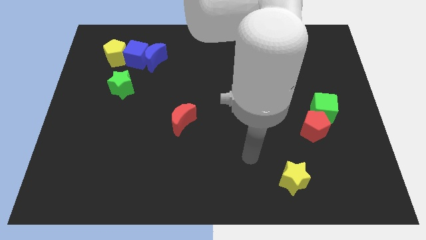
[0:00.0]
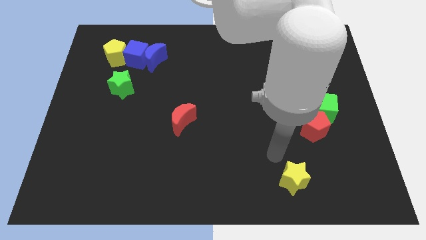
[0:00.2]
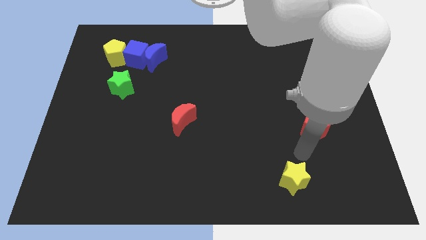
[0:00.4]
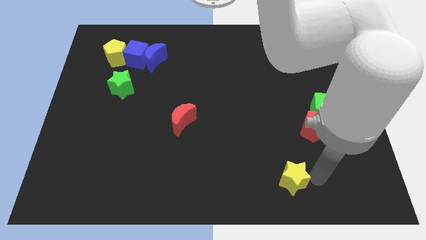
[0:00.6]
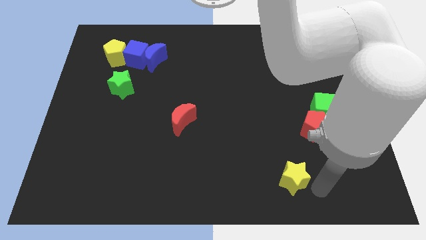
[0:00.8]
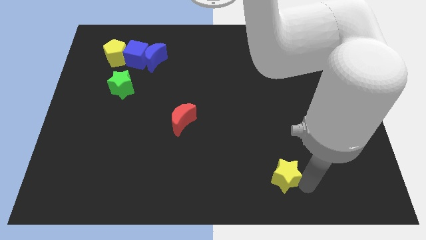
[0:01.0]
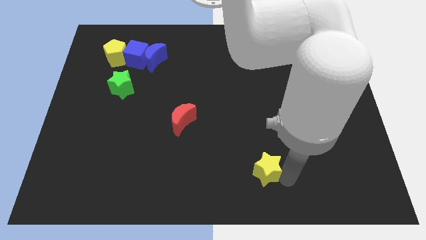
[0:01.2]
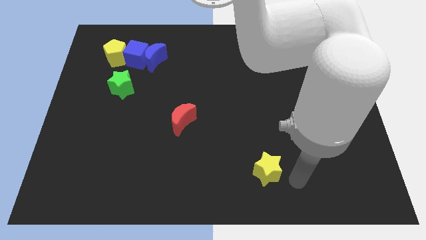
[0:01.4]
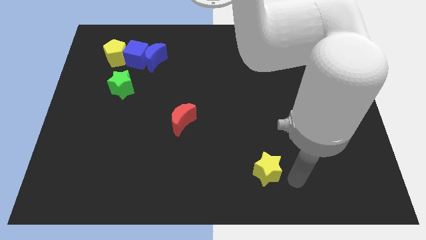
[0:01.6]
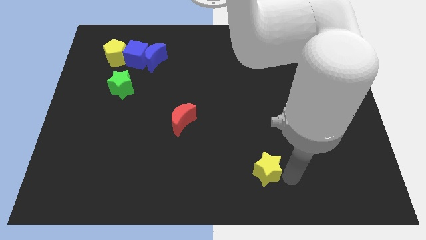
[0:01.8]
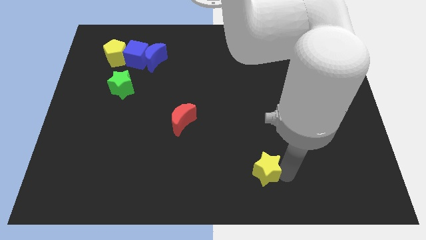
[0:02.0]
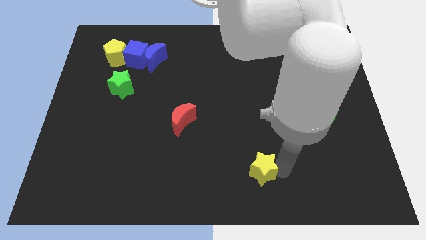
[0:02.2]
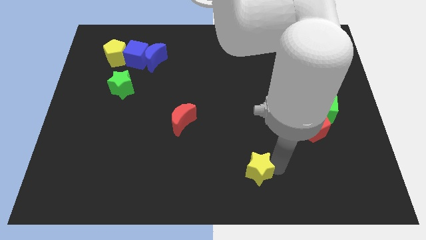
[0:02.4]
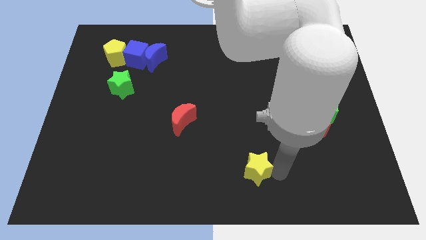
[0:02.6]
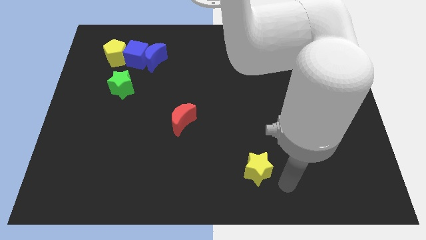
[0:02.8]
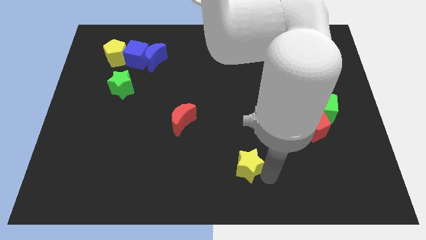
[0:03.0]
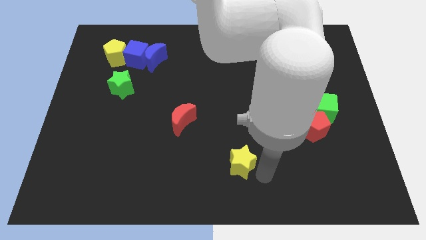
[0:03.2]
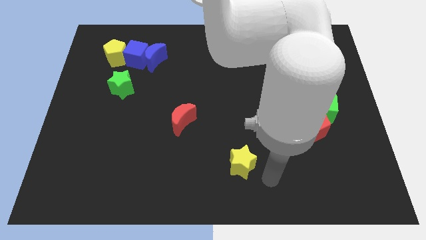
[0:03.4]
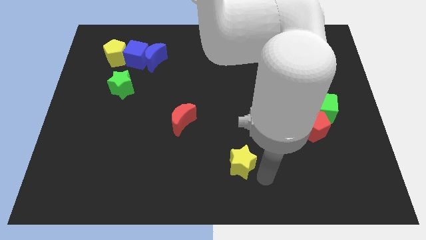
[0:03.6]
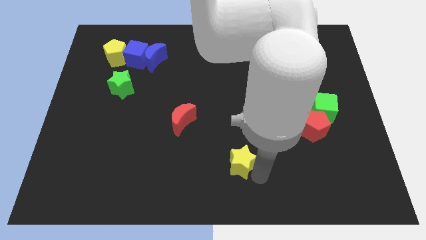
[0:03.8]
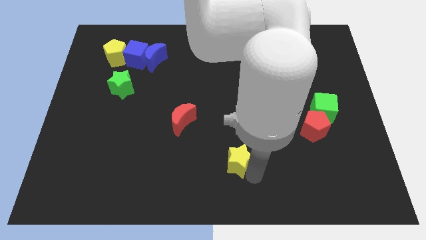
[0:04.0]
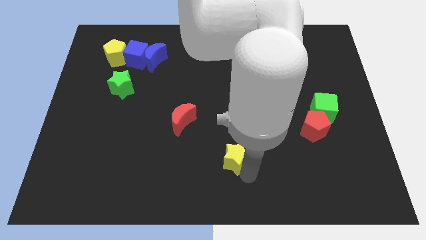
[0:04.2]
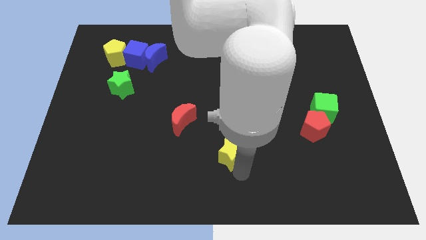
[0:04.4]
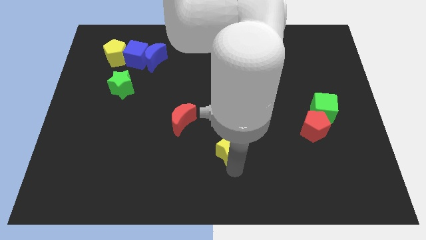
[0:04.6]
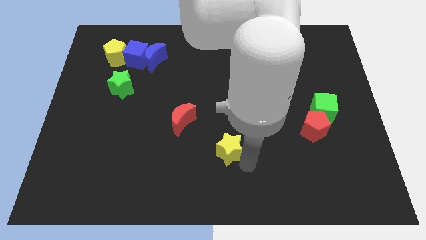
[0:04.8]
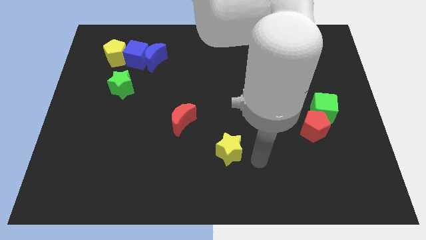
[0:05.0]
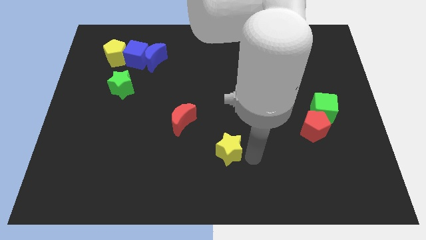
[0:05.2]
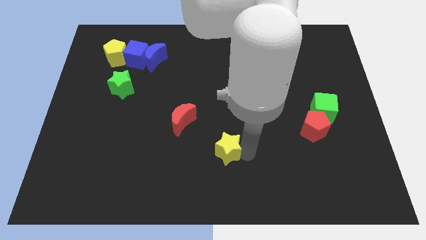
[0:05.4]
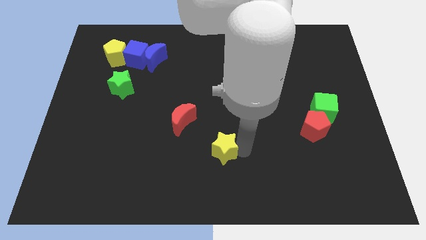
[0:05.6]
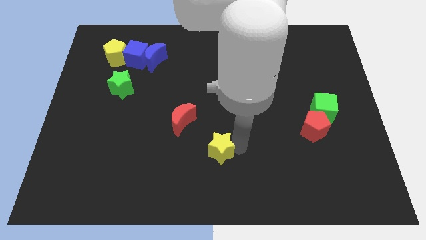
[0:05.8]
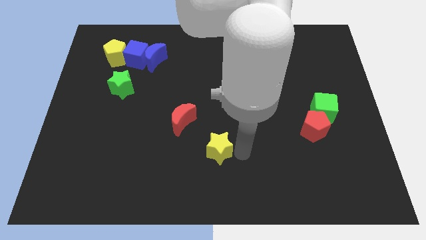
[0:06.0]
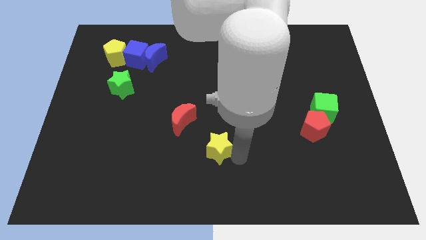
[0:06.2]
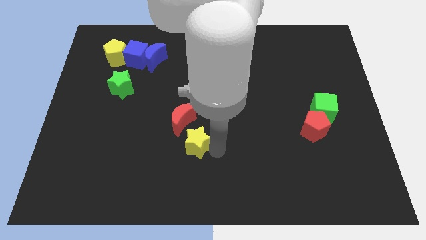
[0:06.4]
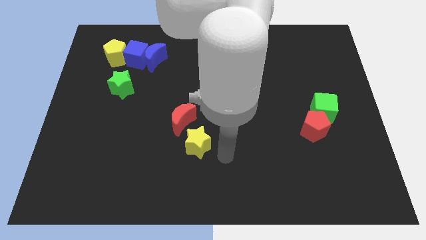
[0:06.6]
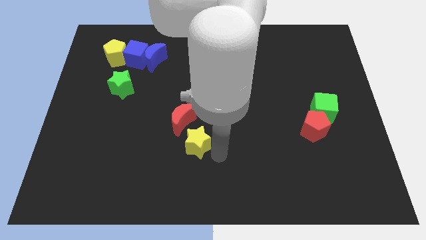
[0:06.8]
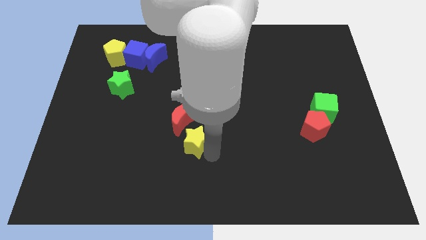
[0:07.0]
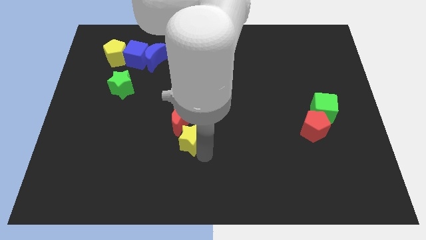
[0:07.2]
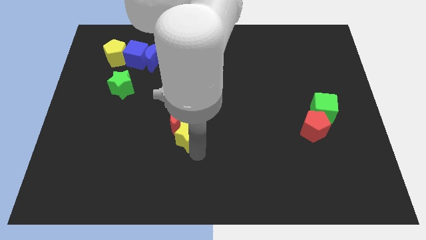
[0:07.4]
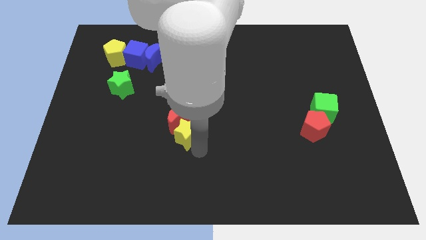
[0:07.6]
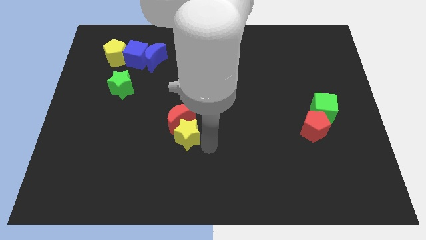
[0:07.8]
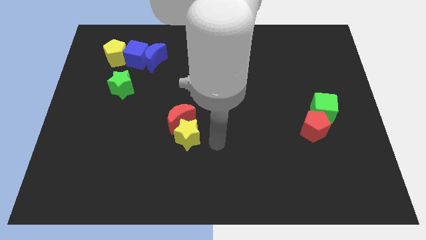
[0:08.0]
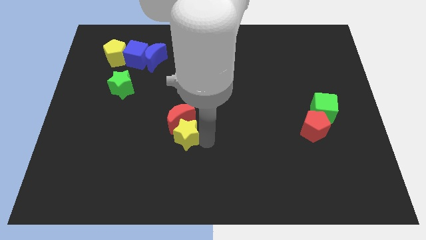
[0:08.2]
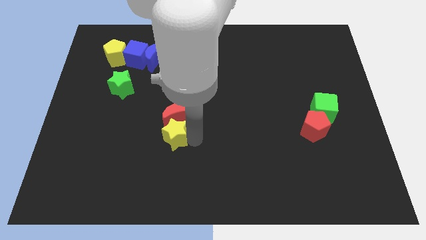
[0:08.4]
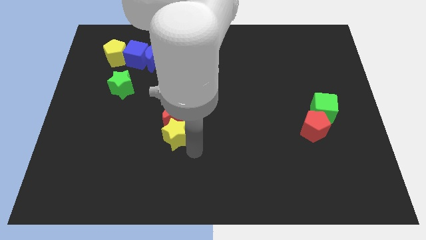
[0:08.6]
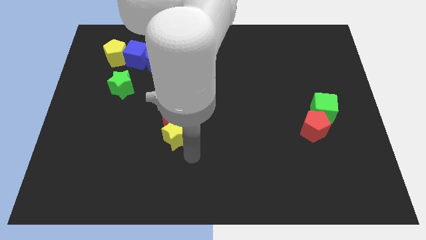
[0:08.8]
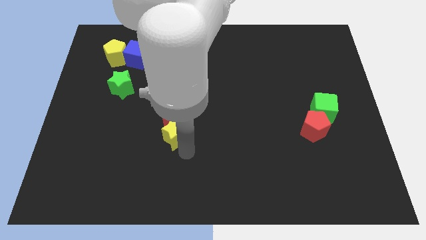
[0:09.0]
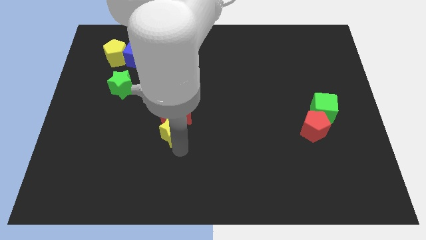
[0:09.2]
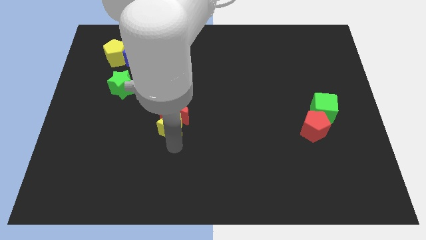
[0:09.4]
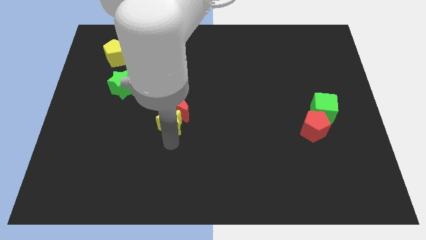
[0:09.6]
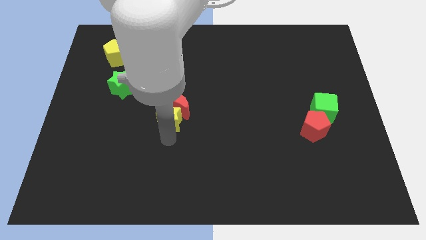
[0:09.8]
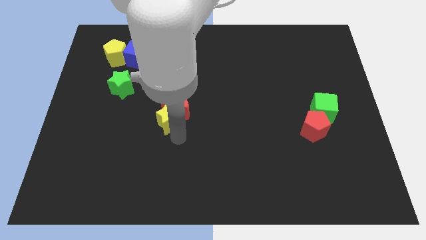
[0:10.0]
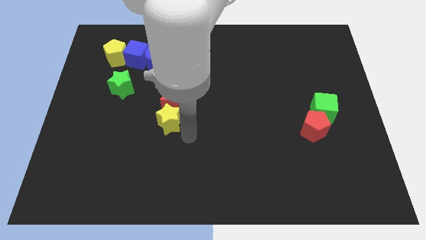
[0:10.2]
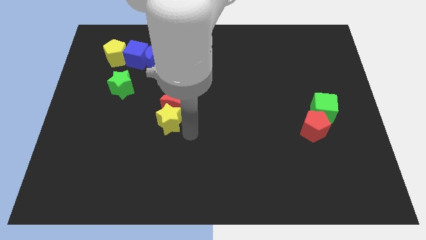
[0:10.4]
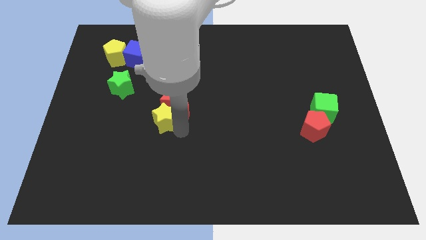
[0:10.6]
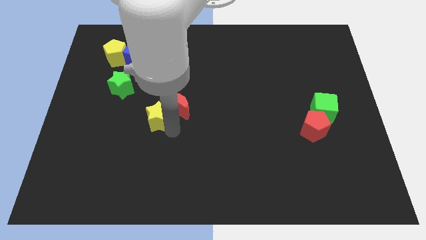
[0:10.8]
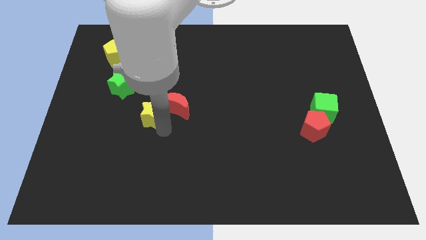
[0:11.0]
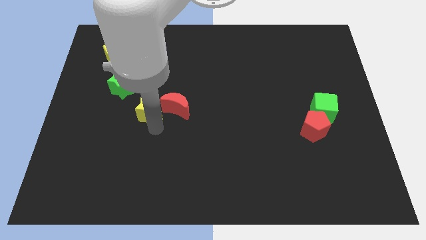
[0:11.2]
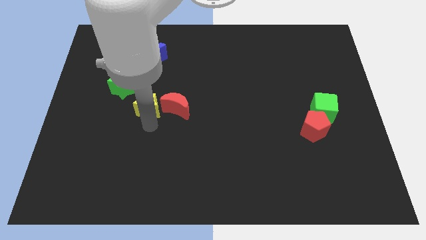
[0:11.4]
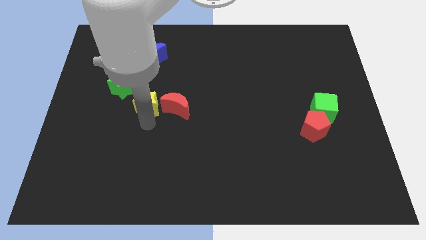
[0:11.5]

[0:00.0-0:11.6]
slide the yellow star to the top left side of the red moon
